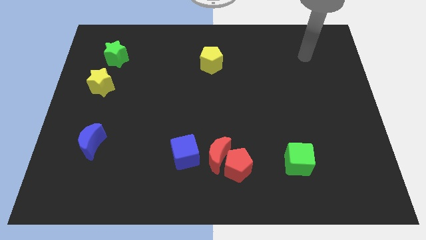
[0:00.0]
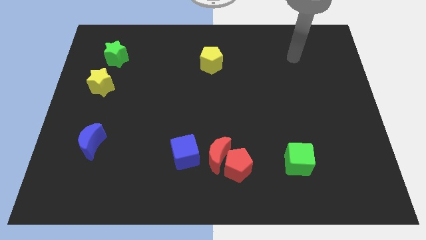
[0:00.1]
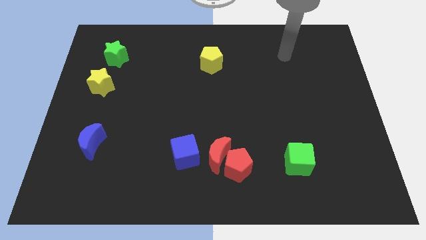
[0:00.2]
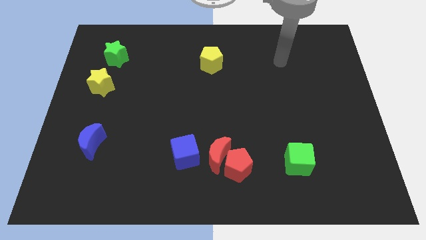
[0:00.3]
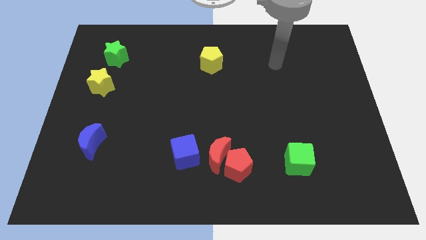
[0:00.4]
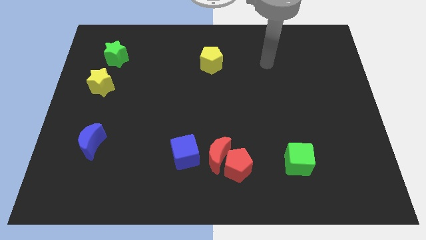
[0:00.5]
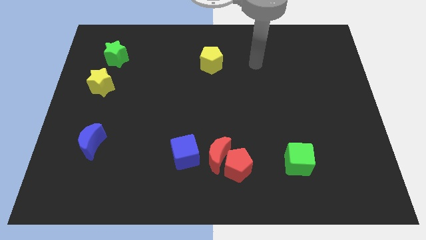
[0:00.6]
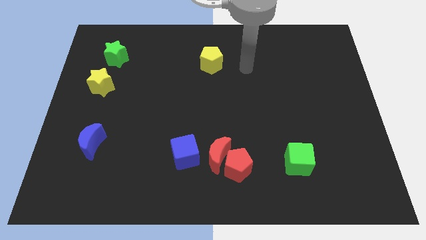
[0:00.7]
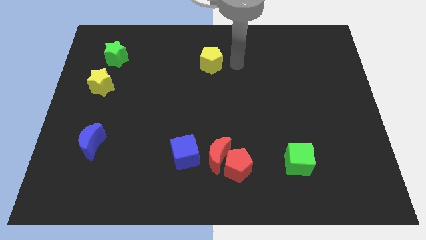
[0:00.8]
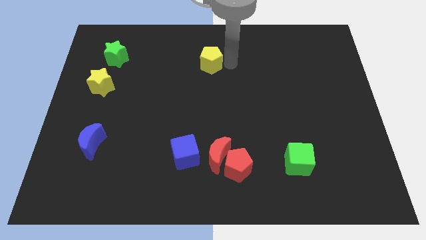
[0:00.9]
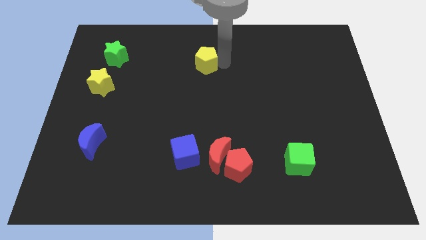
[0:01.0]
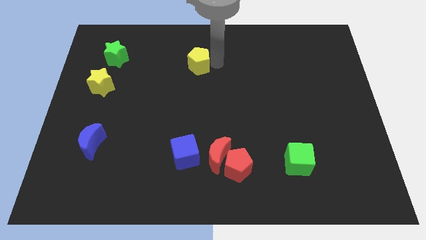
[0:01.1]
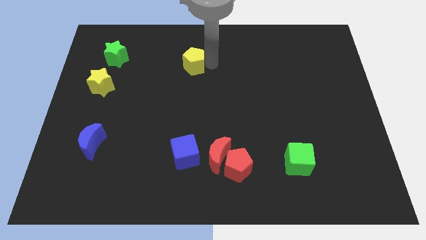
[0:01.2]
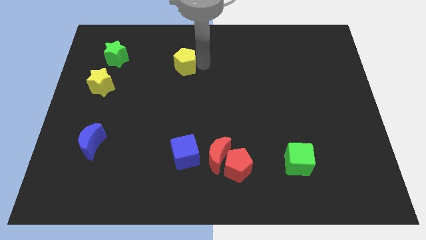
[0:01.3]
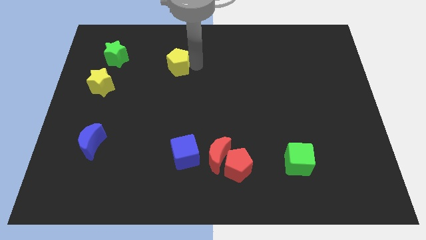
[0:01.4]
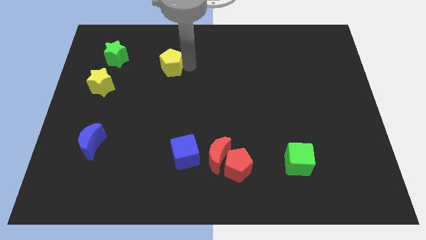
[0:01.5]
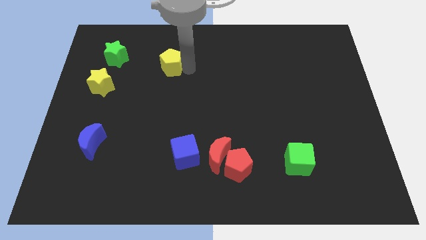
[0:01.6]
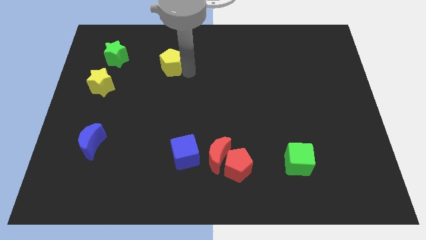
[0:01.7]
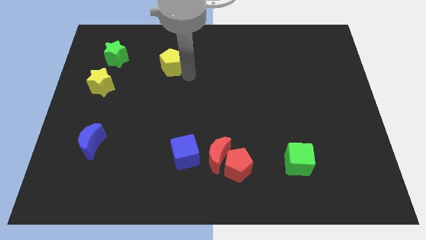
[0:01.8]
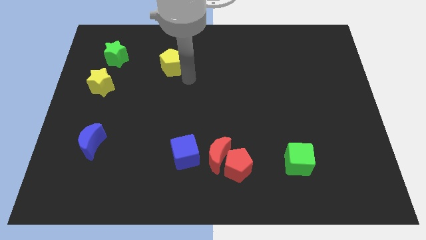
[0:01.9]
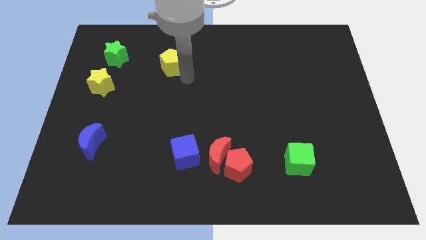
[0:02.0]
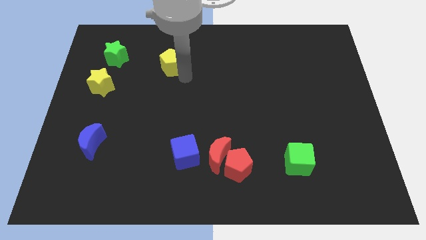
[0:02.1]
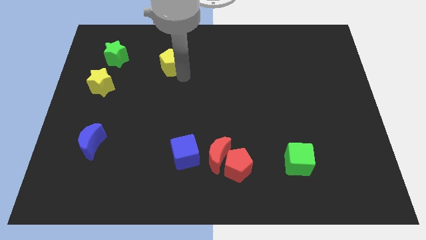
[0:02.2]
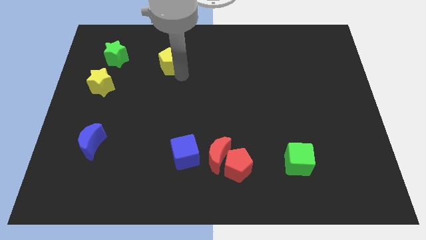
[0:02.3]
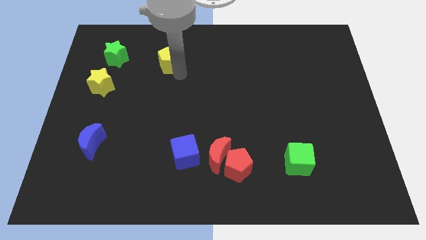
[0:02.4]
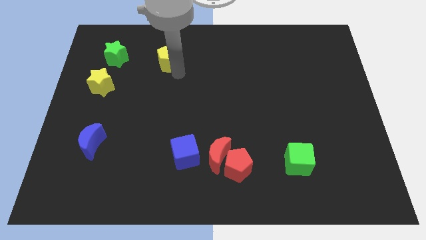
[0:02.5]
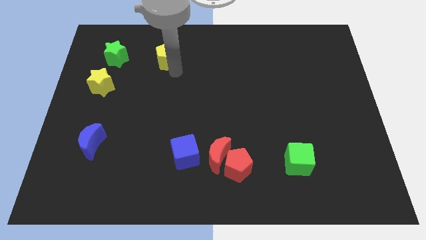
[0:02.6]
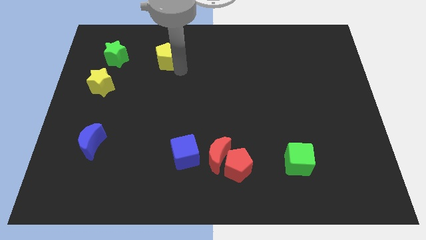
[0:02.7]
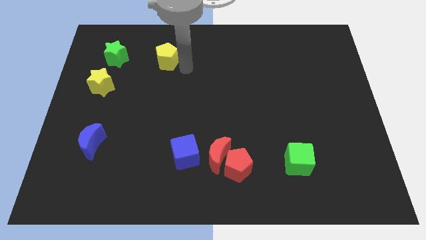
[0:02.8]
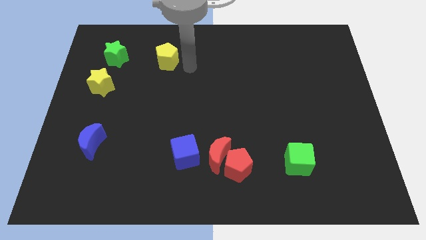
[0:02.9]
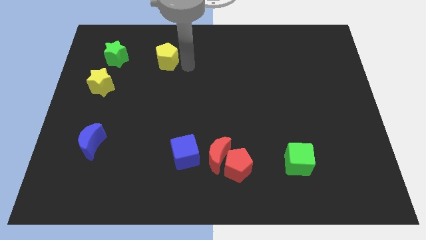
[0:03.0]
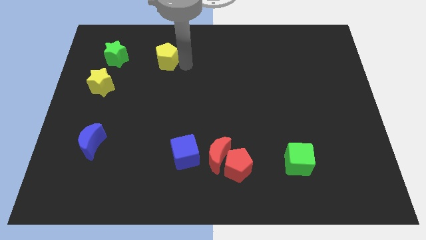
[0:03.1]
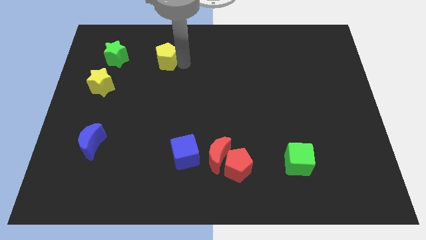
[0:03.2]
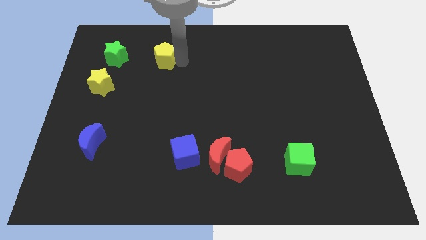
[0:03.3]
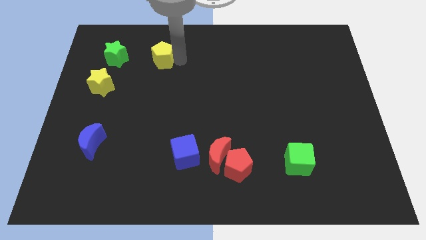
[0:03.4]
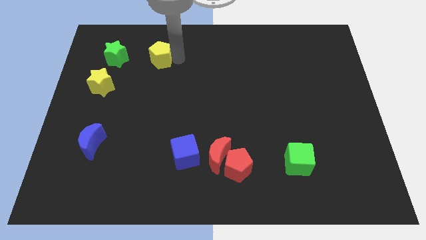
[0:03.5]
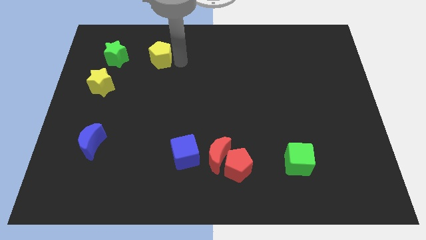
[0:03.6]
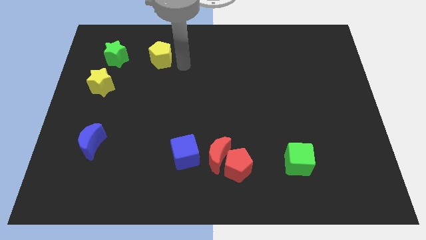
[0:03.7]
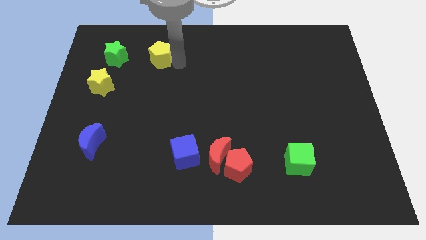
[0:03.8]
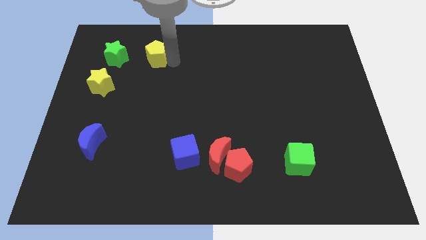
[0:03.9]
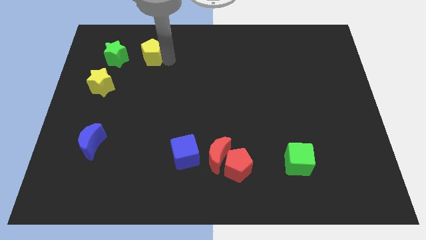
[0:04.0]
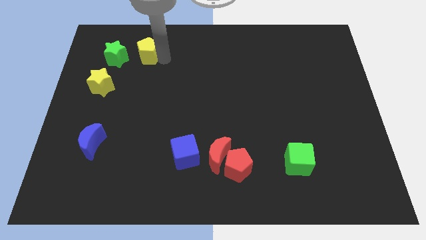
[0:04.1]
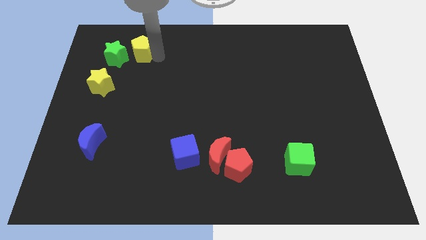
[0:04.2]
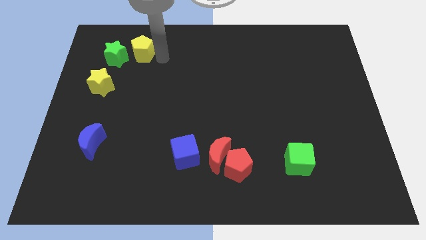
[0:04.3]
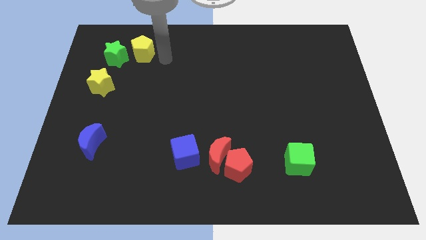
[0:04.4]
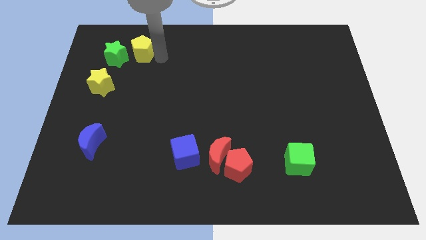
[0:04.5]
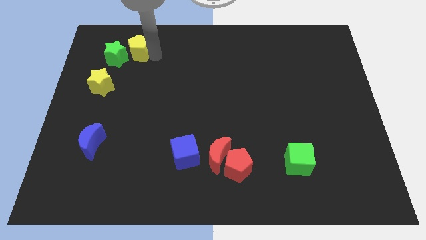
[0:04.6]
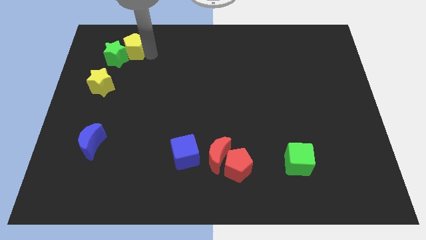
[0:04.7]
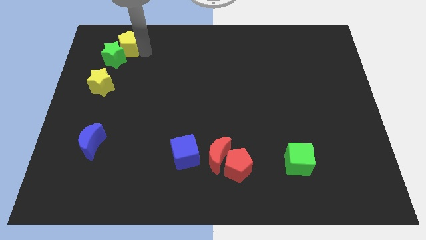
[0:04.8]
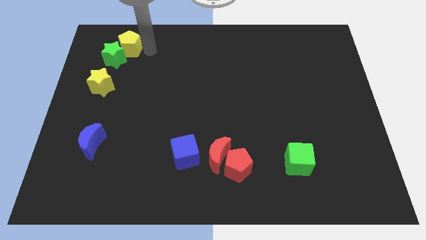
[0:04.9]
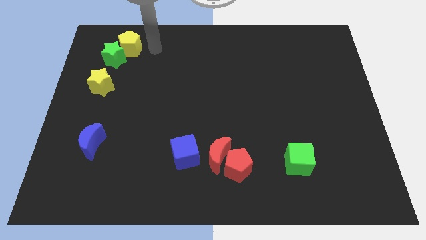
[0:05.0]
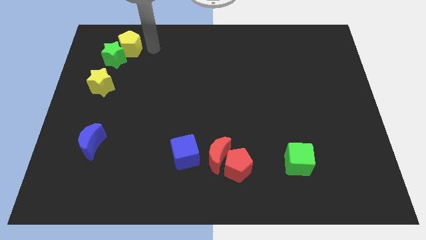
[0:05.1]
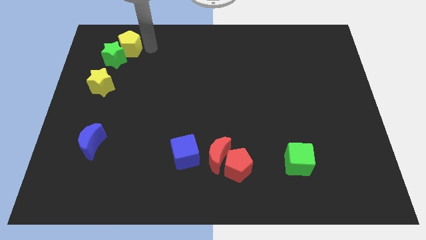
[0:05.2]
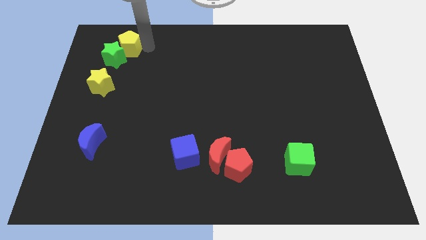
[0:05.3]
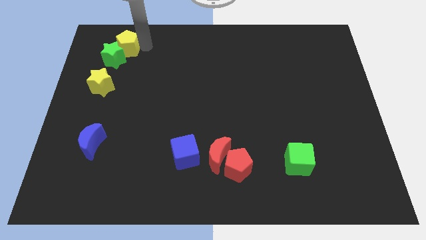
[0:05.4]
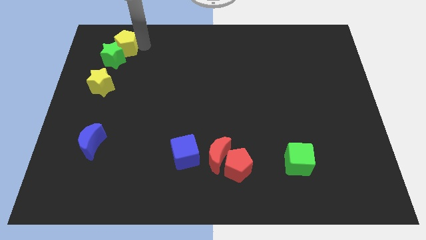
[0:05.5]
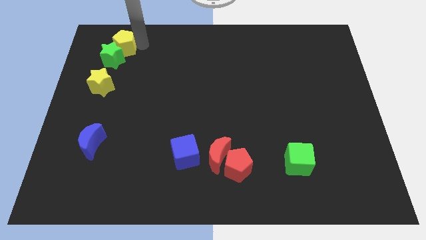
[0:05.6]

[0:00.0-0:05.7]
slide the yellow pentagon to the top of the yellow star

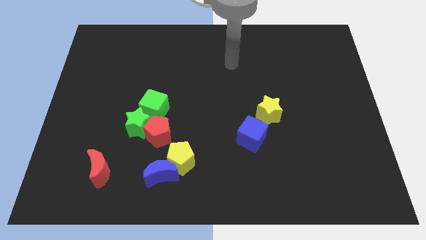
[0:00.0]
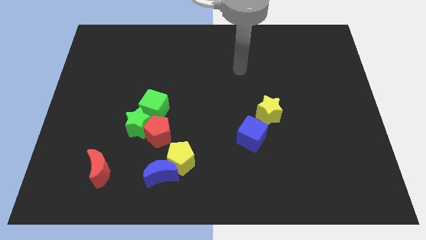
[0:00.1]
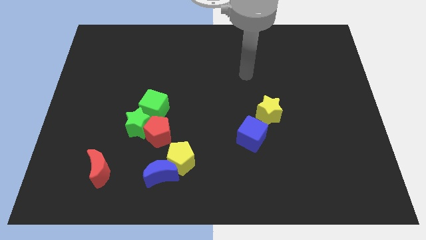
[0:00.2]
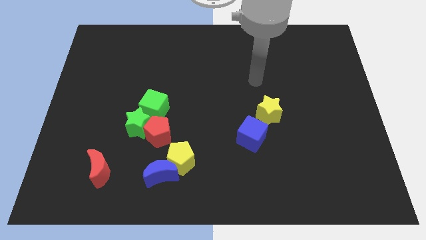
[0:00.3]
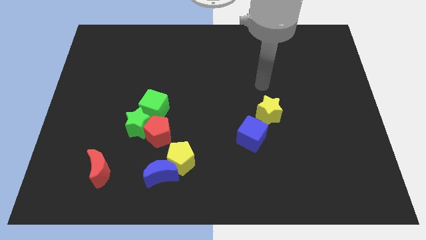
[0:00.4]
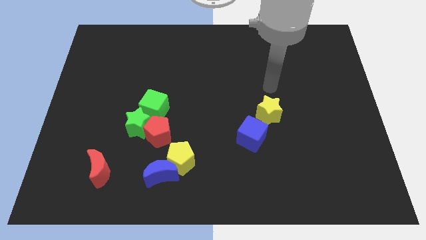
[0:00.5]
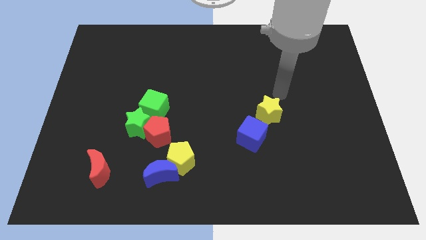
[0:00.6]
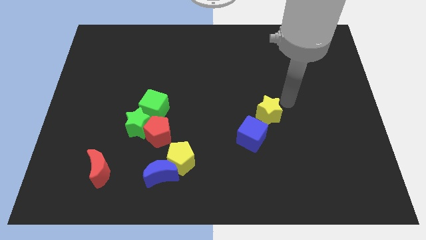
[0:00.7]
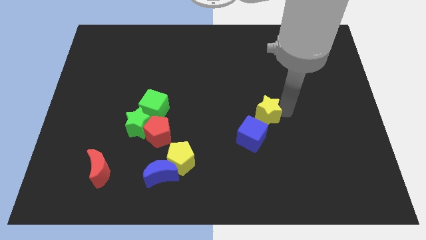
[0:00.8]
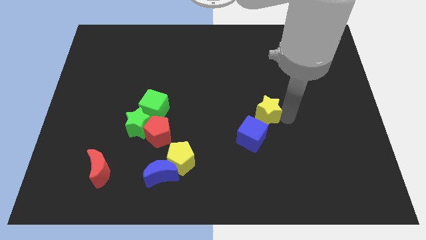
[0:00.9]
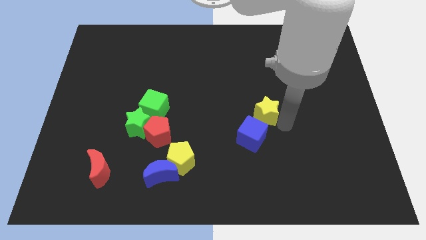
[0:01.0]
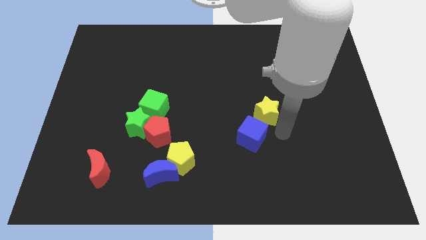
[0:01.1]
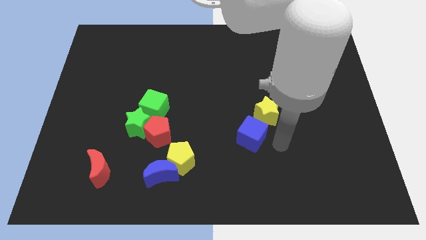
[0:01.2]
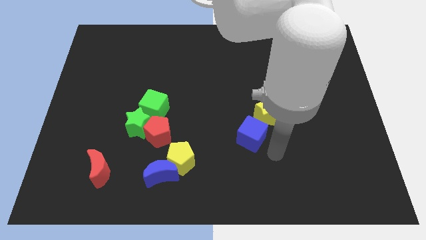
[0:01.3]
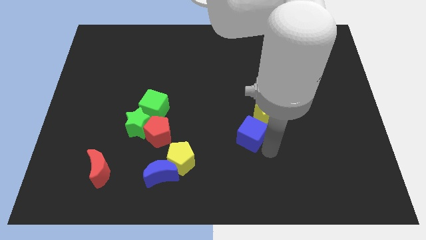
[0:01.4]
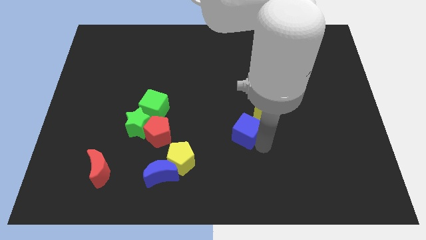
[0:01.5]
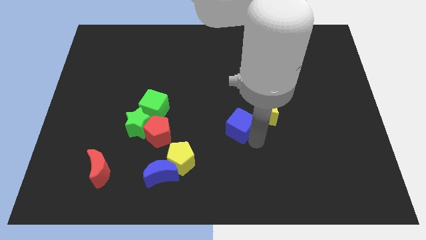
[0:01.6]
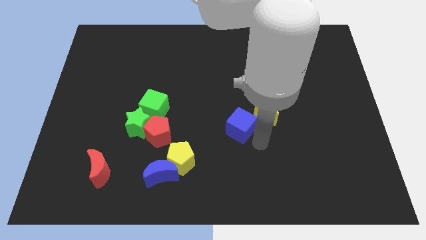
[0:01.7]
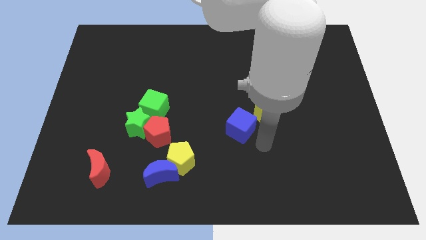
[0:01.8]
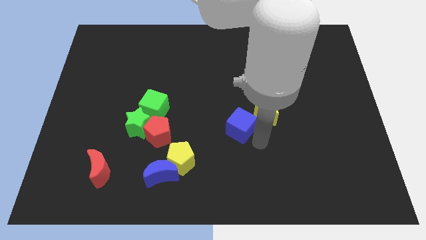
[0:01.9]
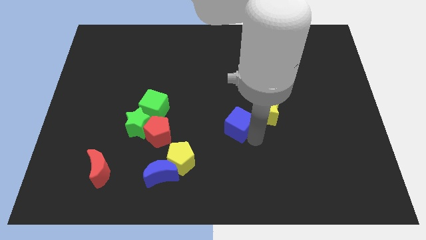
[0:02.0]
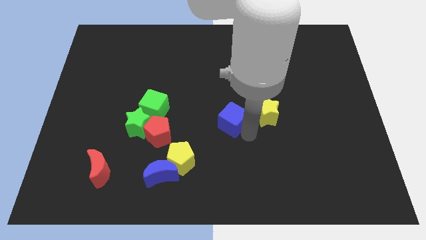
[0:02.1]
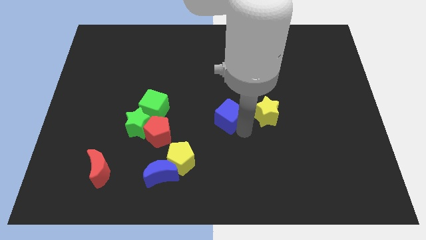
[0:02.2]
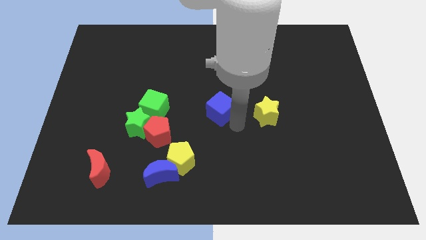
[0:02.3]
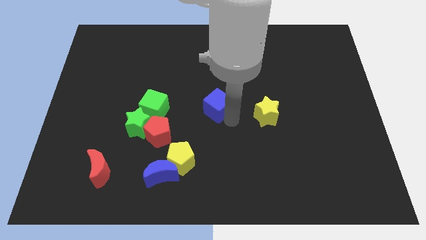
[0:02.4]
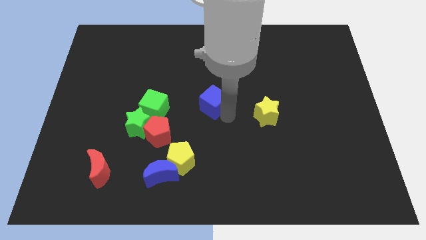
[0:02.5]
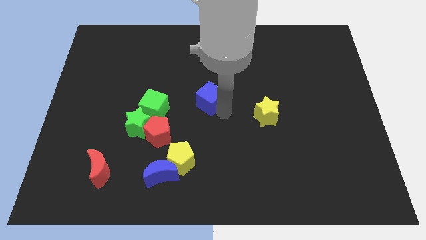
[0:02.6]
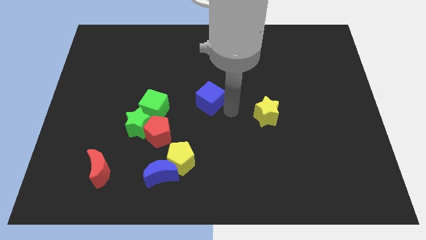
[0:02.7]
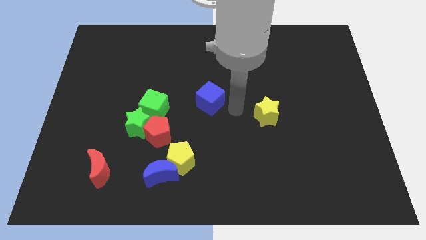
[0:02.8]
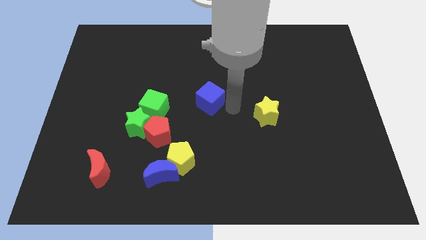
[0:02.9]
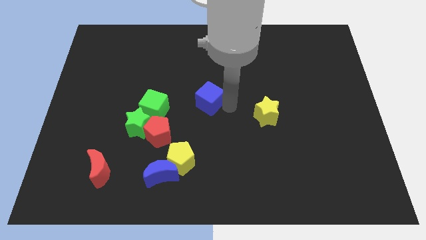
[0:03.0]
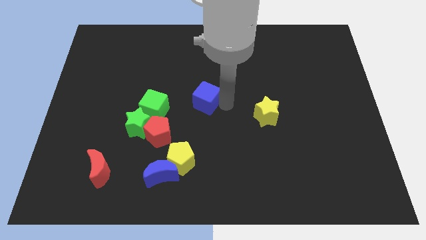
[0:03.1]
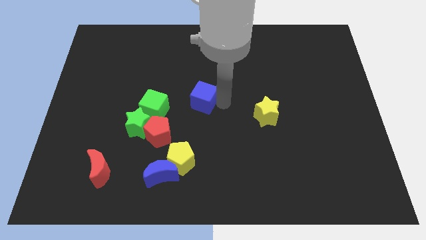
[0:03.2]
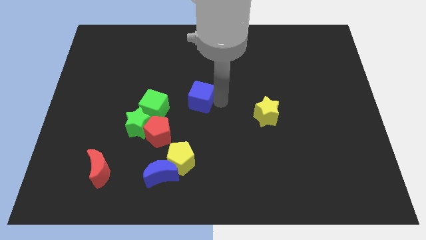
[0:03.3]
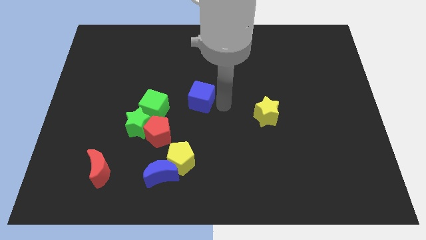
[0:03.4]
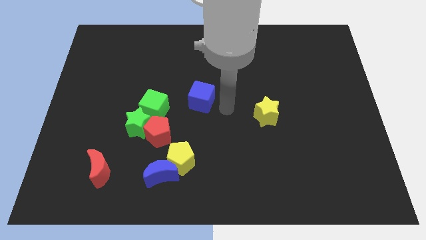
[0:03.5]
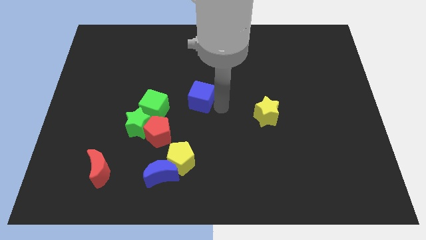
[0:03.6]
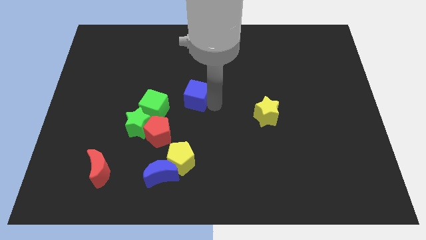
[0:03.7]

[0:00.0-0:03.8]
put the blue cube to the top right of the green cube
